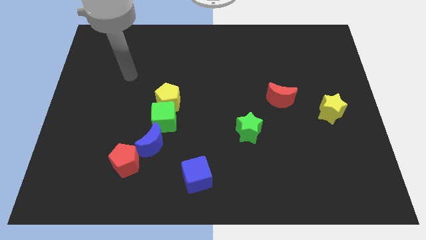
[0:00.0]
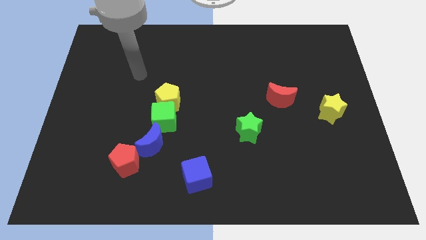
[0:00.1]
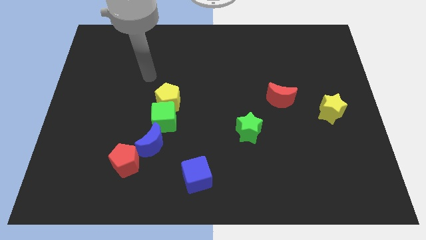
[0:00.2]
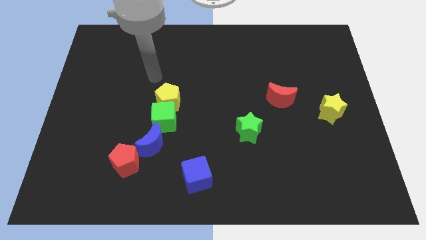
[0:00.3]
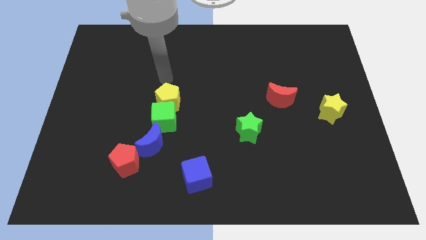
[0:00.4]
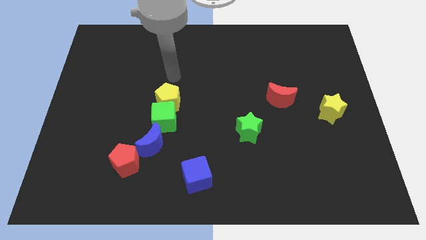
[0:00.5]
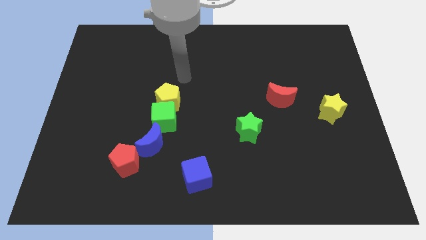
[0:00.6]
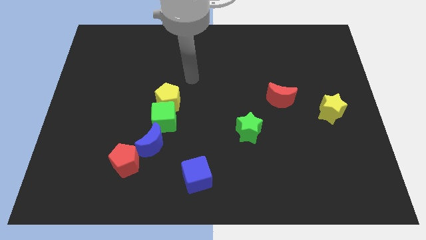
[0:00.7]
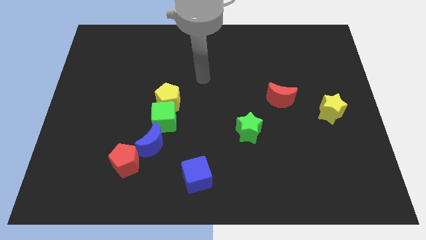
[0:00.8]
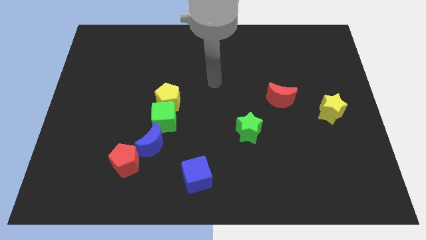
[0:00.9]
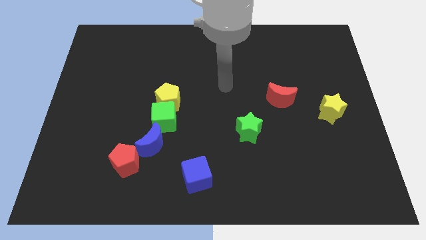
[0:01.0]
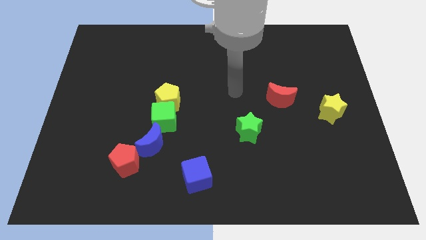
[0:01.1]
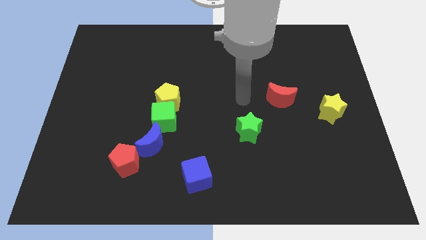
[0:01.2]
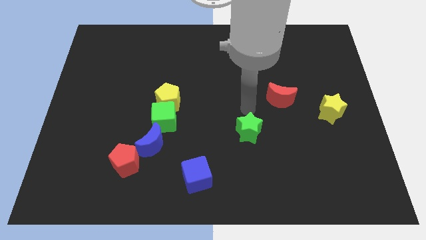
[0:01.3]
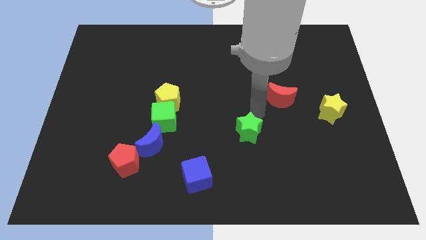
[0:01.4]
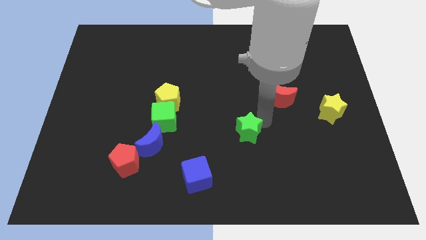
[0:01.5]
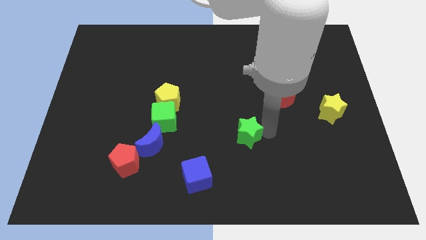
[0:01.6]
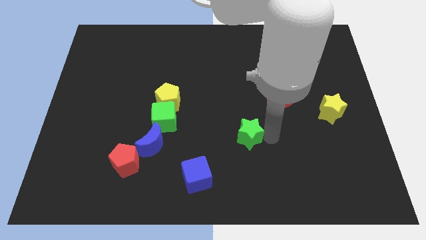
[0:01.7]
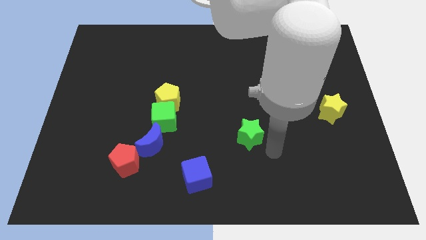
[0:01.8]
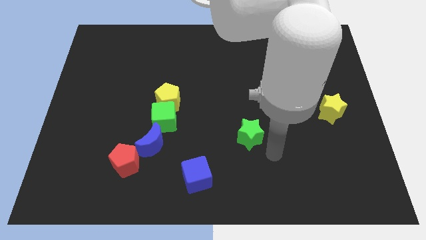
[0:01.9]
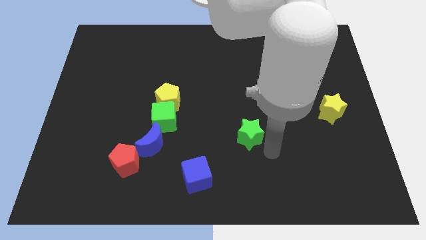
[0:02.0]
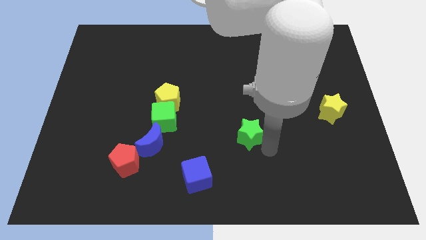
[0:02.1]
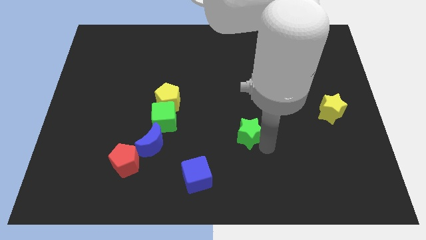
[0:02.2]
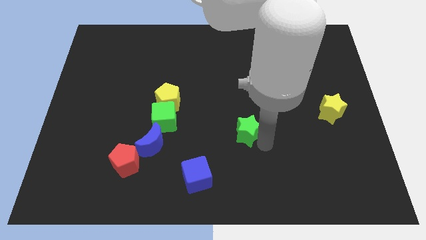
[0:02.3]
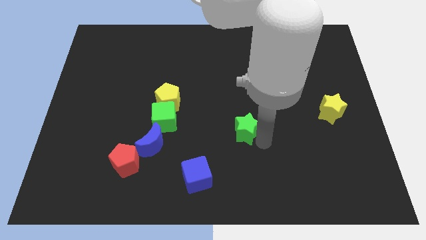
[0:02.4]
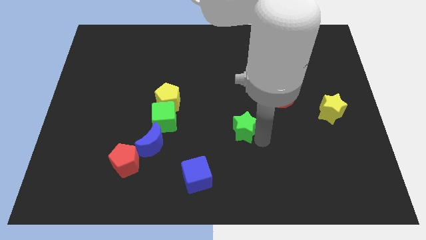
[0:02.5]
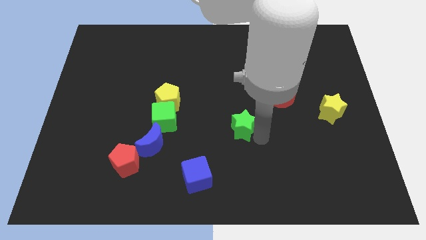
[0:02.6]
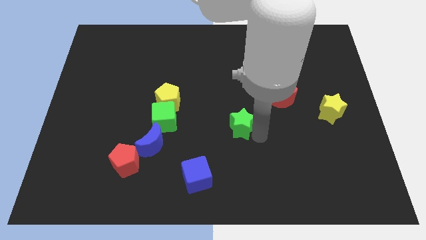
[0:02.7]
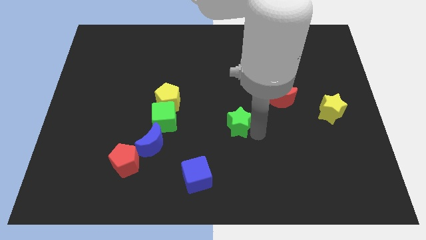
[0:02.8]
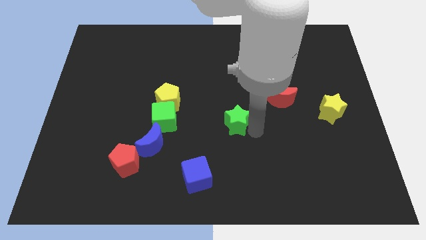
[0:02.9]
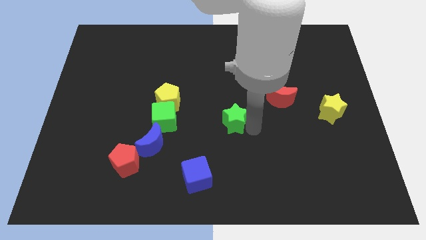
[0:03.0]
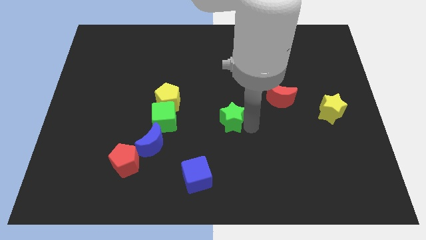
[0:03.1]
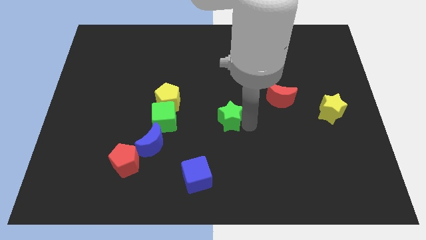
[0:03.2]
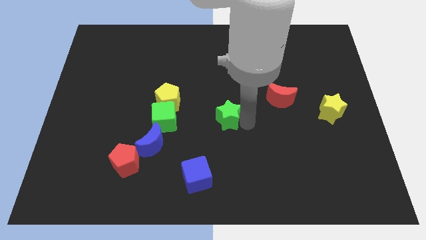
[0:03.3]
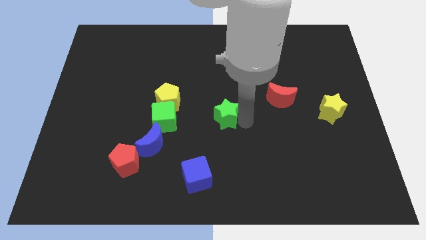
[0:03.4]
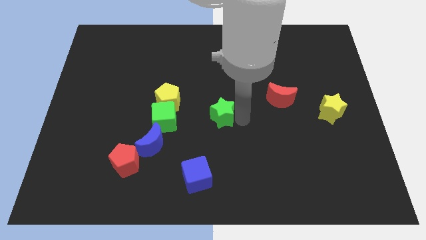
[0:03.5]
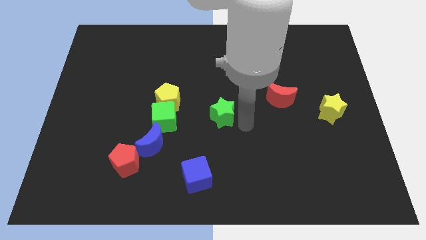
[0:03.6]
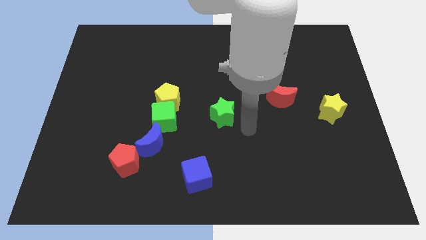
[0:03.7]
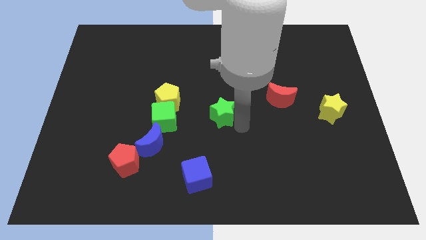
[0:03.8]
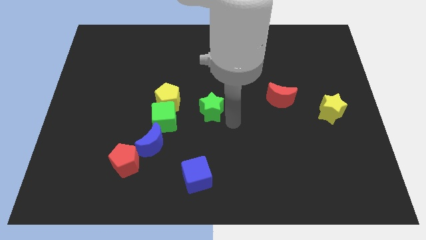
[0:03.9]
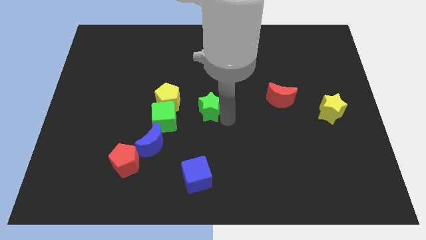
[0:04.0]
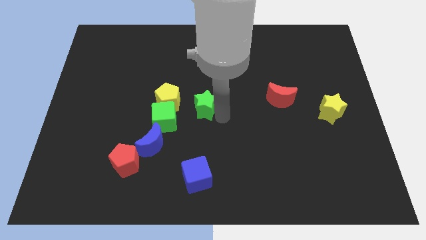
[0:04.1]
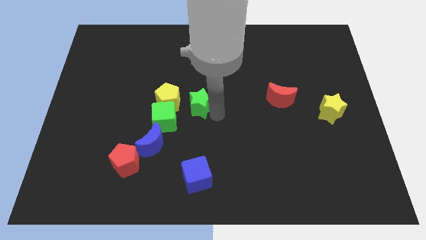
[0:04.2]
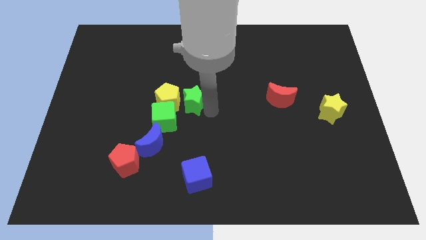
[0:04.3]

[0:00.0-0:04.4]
push the green star to the yellow pentagon

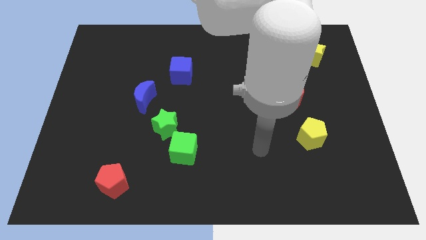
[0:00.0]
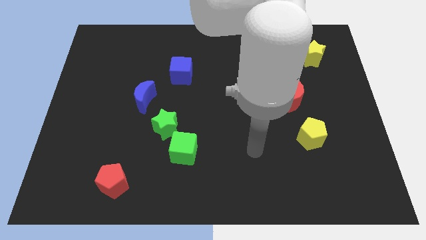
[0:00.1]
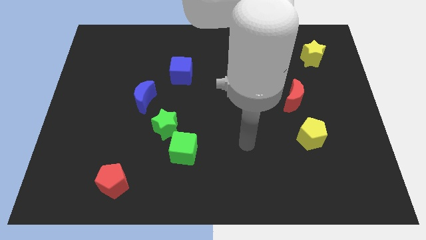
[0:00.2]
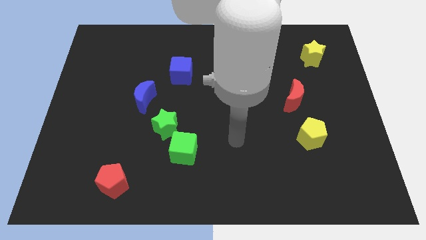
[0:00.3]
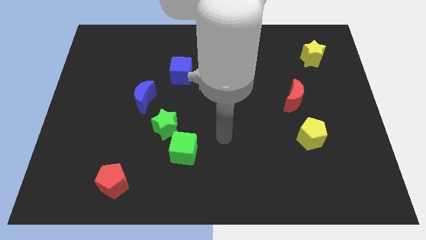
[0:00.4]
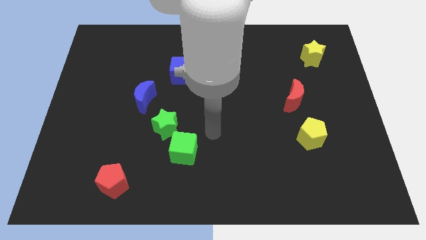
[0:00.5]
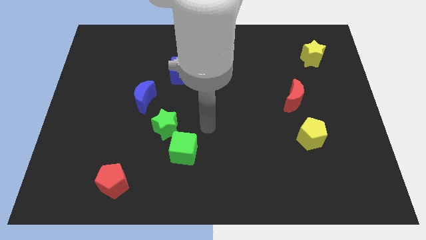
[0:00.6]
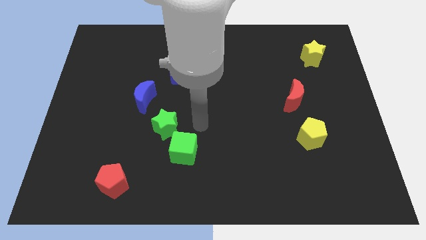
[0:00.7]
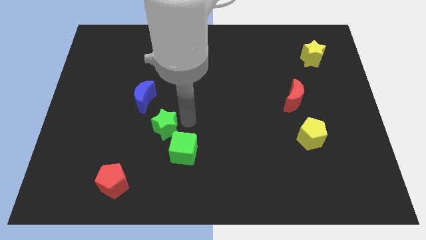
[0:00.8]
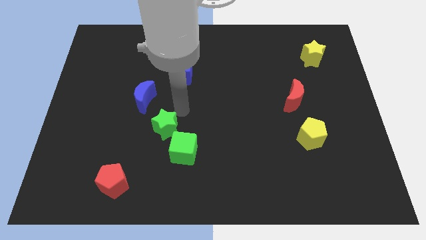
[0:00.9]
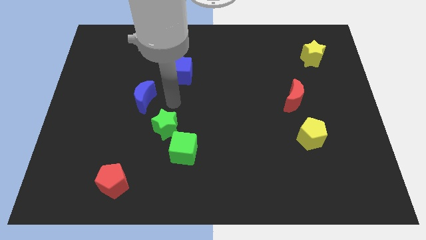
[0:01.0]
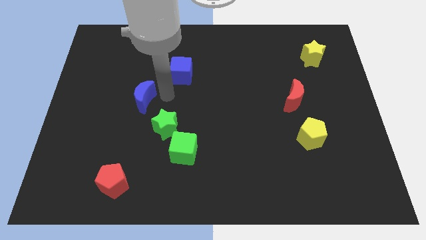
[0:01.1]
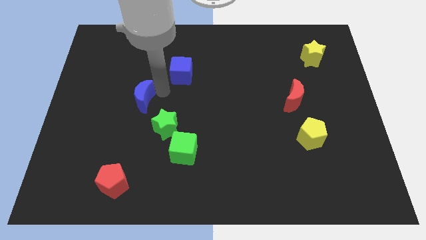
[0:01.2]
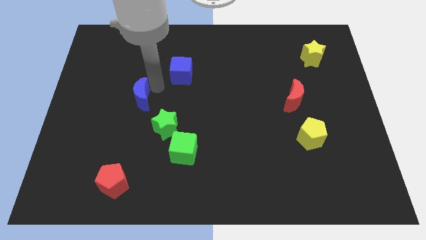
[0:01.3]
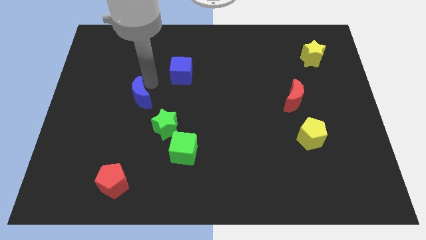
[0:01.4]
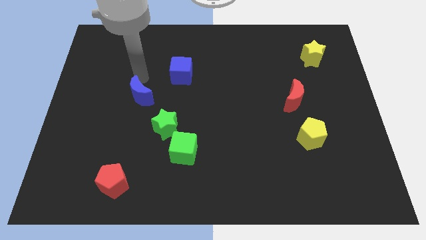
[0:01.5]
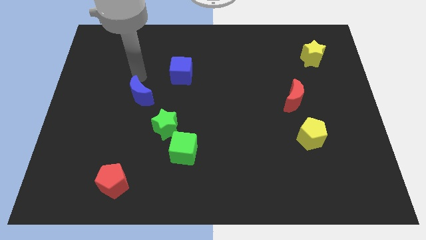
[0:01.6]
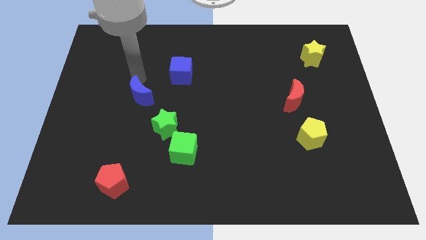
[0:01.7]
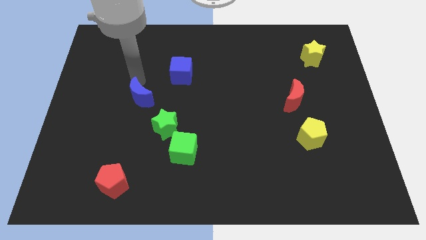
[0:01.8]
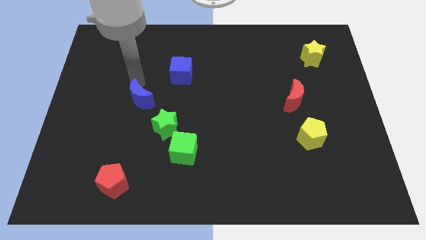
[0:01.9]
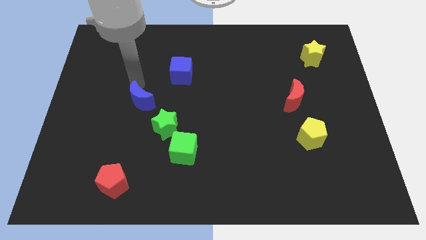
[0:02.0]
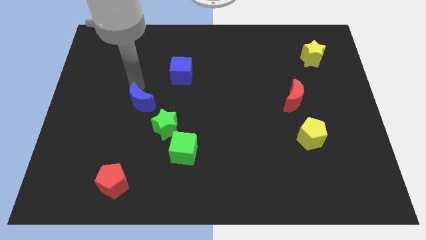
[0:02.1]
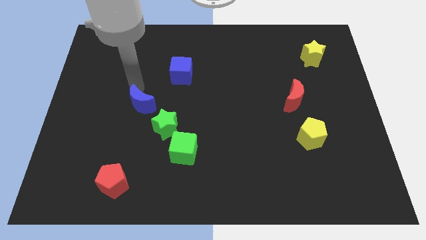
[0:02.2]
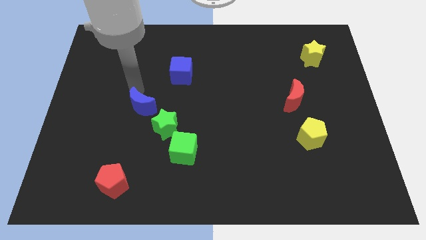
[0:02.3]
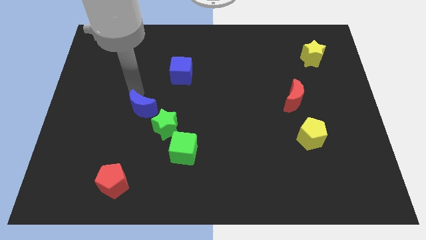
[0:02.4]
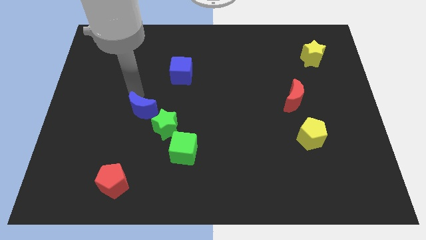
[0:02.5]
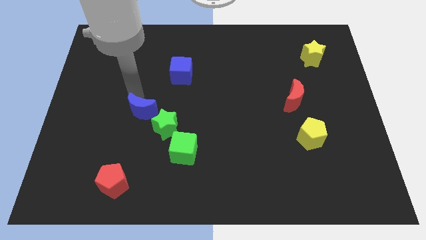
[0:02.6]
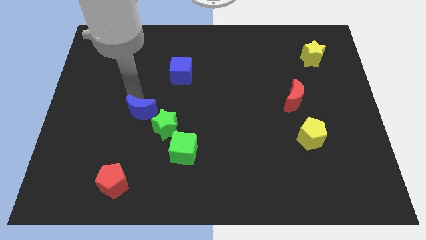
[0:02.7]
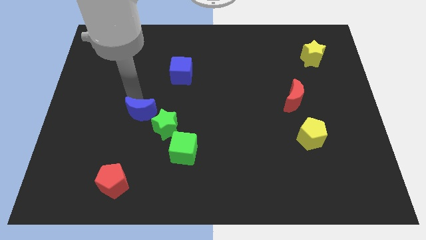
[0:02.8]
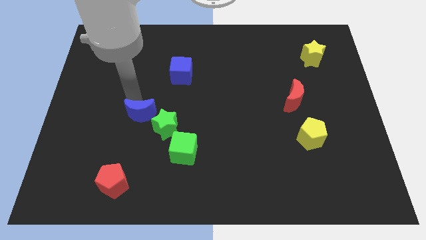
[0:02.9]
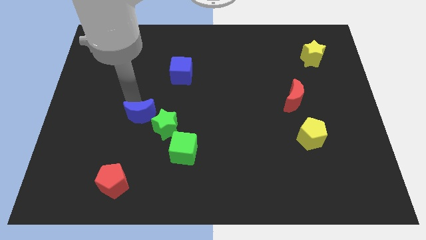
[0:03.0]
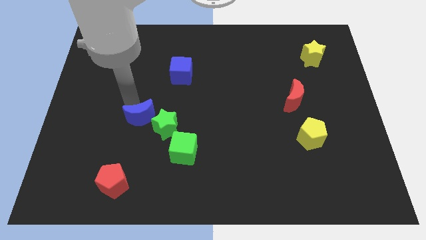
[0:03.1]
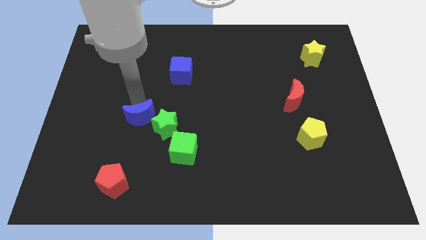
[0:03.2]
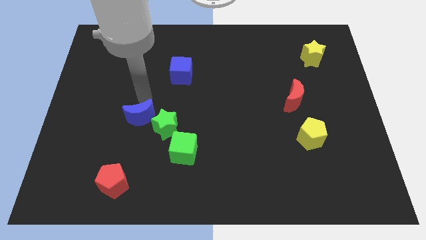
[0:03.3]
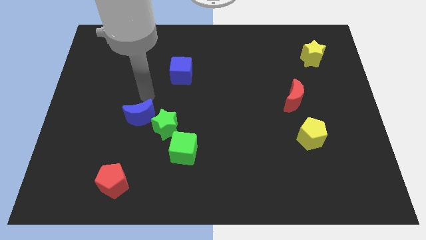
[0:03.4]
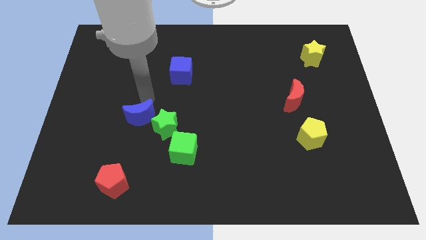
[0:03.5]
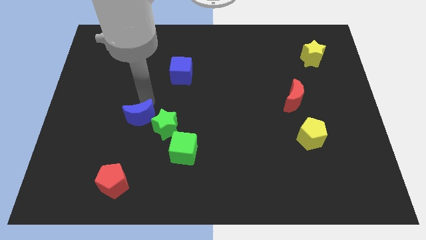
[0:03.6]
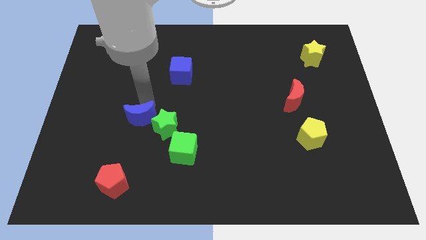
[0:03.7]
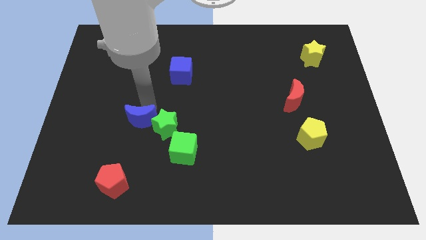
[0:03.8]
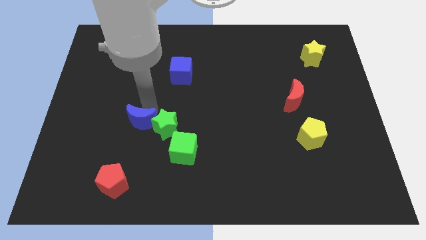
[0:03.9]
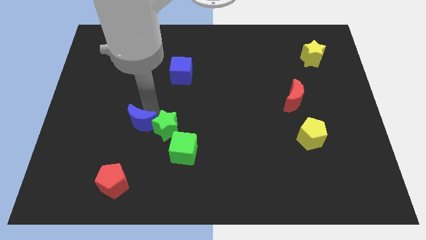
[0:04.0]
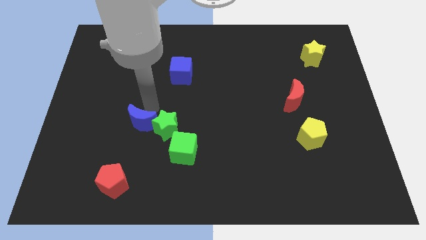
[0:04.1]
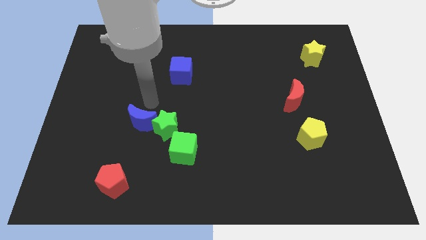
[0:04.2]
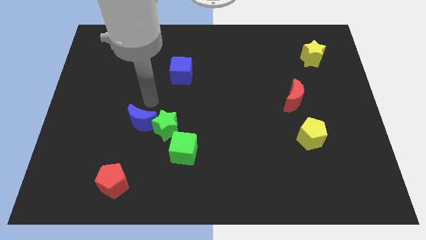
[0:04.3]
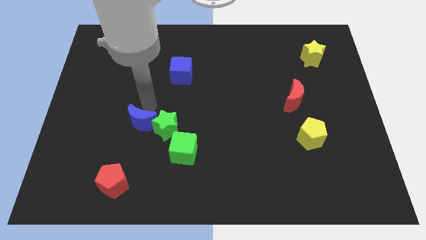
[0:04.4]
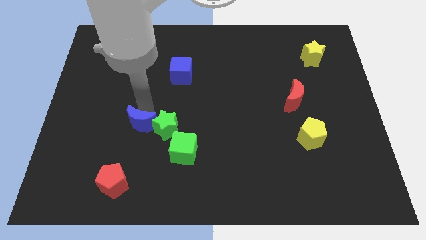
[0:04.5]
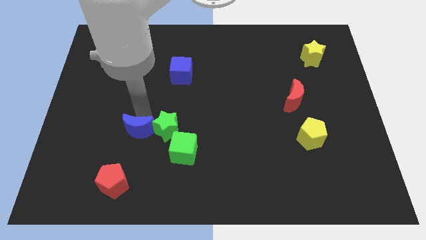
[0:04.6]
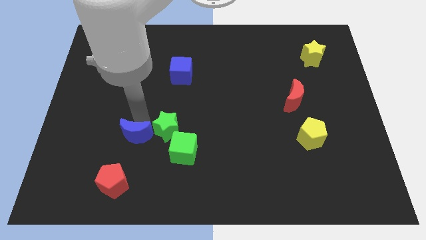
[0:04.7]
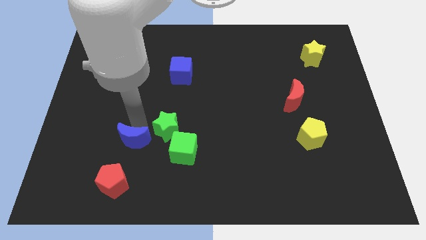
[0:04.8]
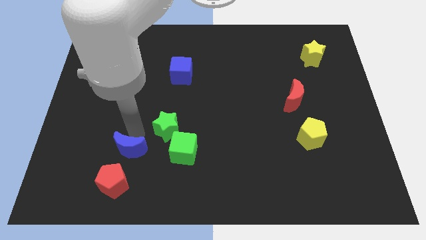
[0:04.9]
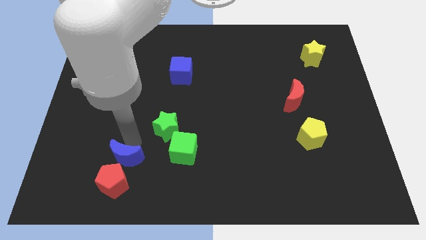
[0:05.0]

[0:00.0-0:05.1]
push the blue moon to the red pentagon
